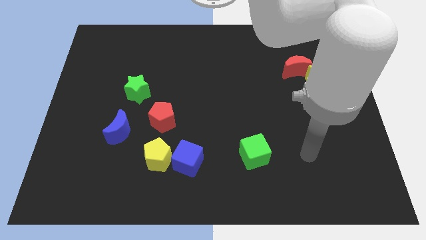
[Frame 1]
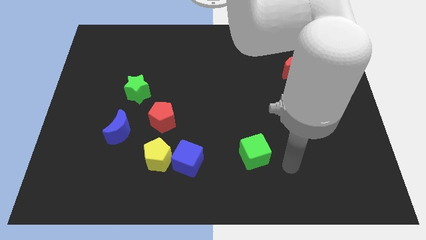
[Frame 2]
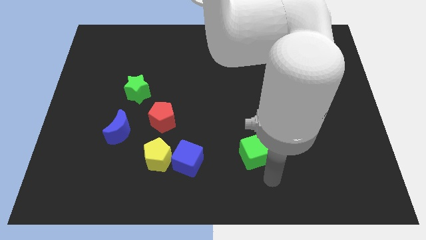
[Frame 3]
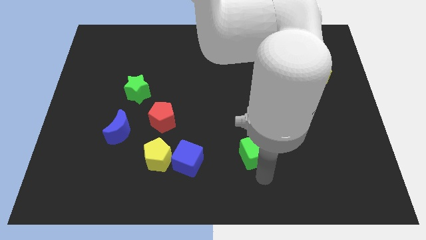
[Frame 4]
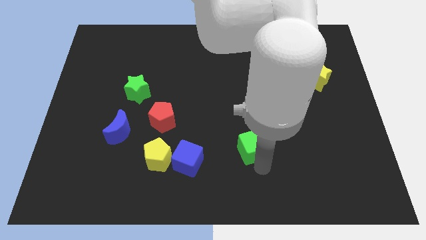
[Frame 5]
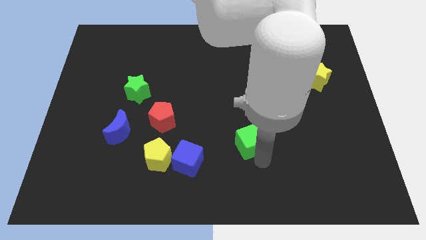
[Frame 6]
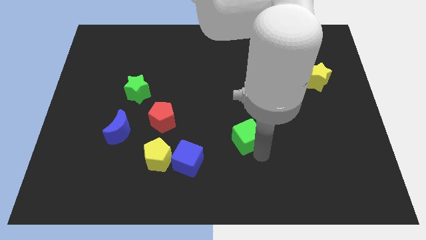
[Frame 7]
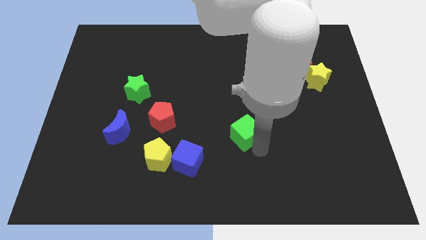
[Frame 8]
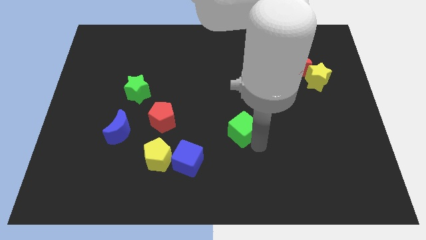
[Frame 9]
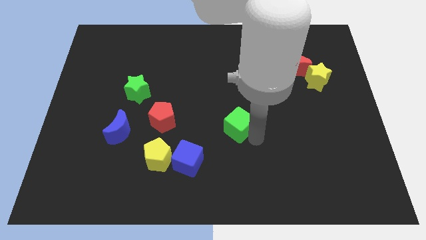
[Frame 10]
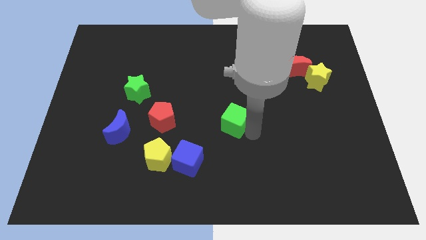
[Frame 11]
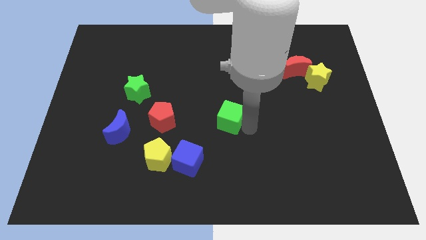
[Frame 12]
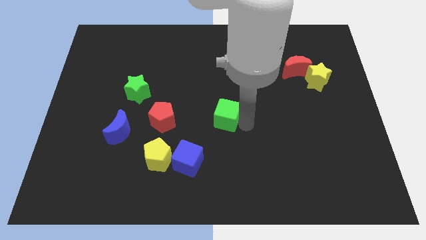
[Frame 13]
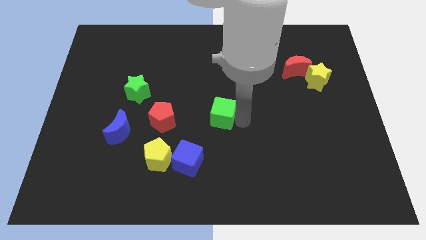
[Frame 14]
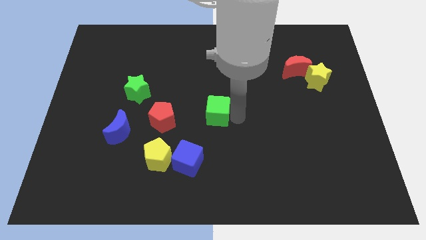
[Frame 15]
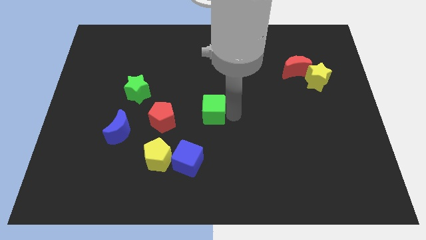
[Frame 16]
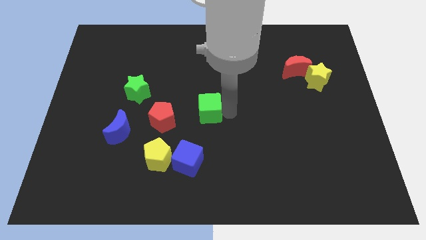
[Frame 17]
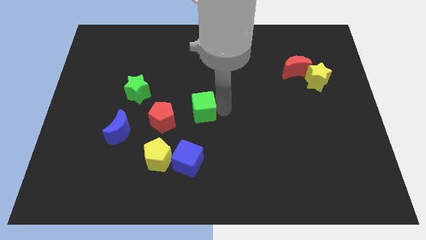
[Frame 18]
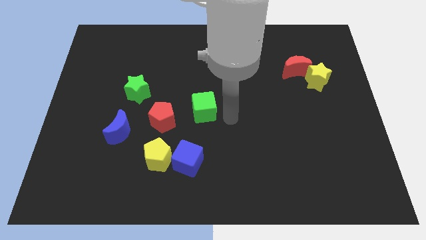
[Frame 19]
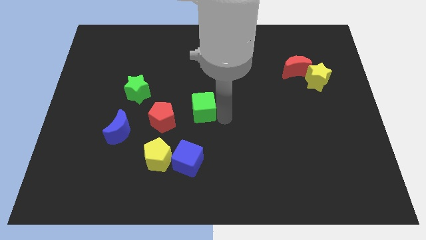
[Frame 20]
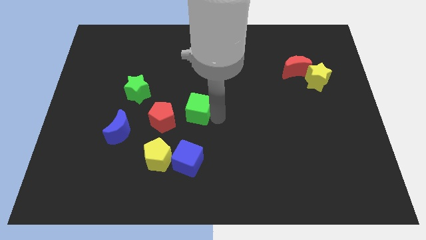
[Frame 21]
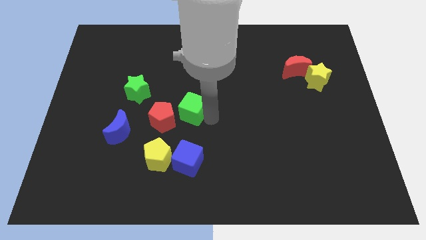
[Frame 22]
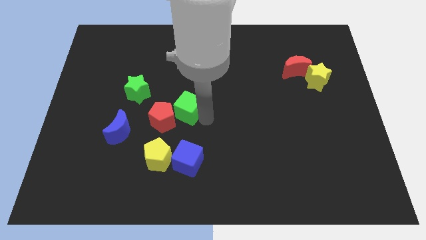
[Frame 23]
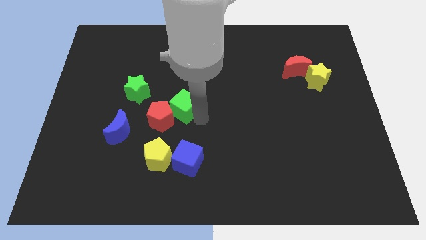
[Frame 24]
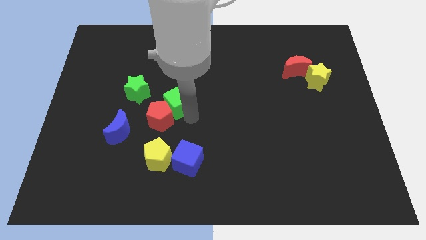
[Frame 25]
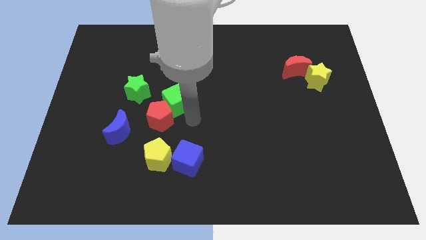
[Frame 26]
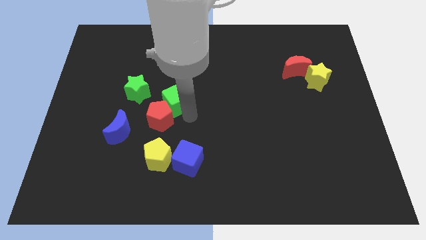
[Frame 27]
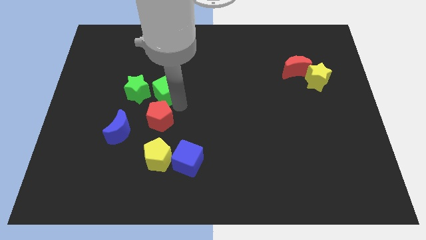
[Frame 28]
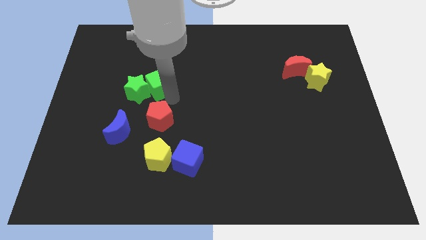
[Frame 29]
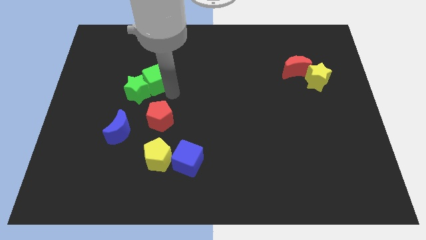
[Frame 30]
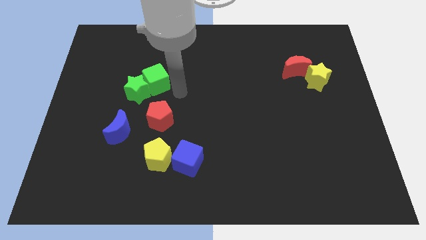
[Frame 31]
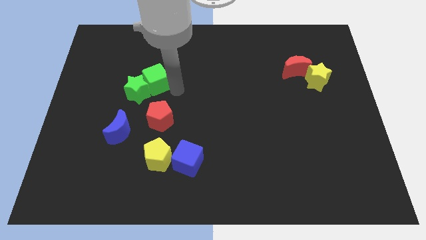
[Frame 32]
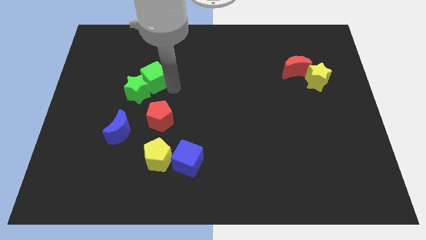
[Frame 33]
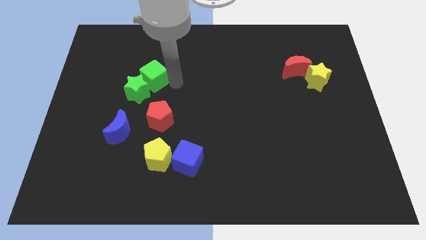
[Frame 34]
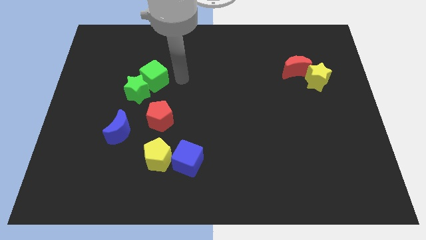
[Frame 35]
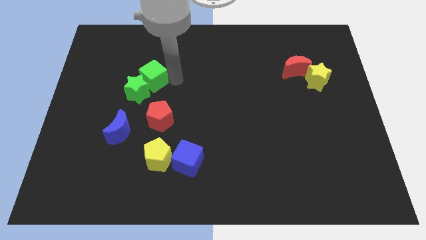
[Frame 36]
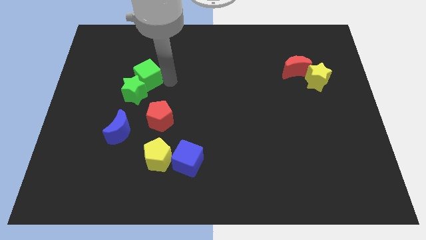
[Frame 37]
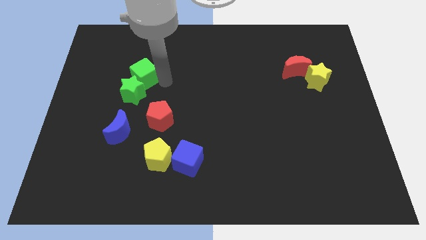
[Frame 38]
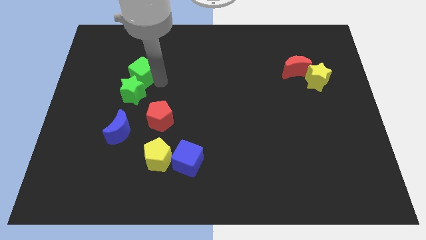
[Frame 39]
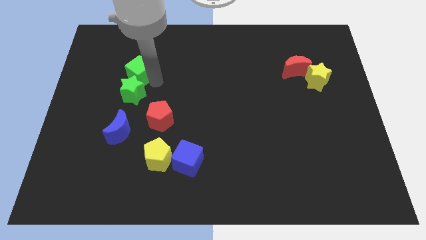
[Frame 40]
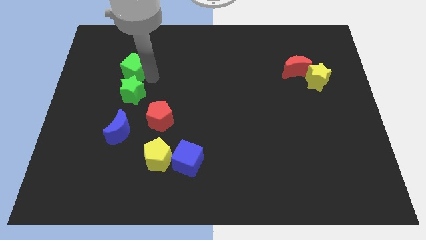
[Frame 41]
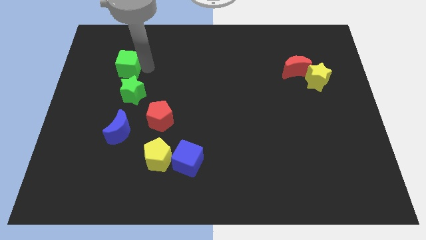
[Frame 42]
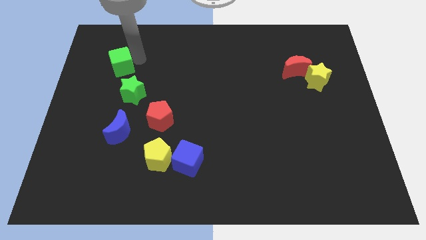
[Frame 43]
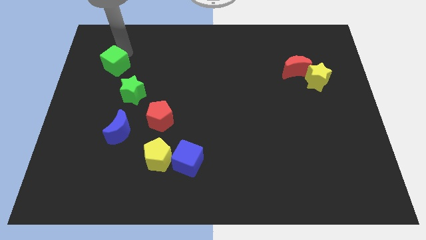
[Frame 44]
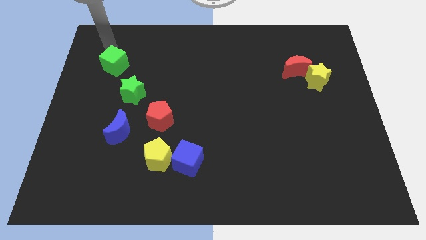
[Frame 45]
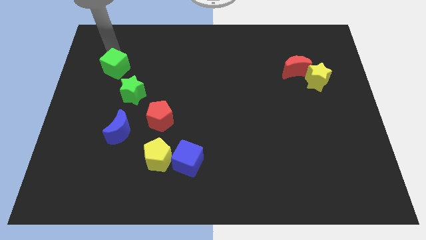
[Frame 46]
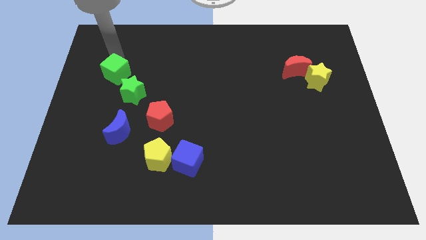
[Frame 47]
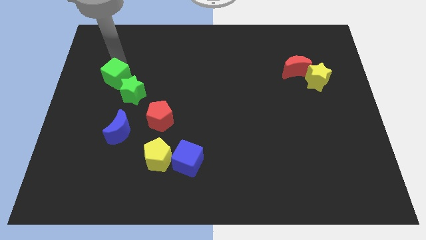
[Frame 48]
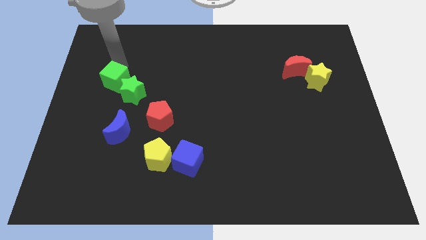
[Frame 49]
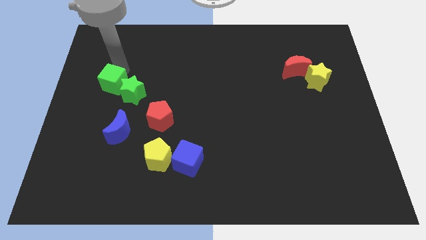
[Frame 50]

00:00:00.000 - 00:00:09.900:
slide the green cube above the blue moon

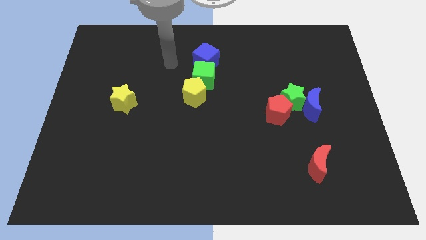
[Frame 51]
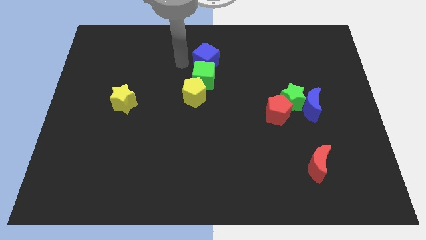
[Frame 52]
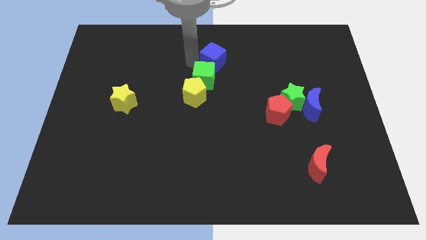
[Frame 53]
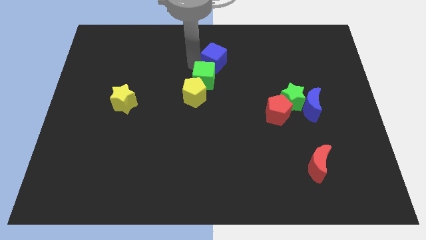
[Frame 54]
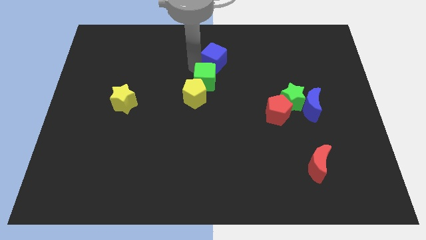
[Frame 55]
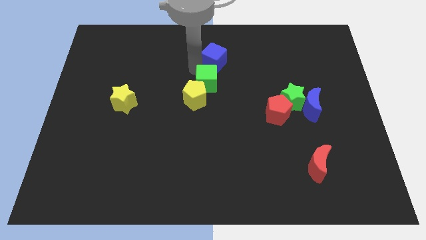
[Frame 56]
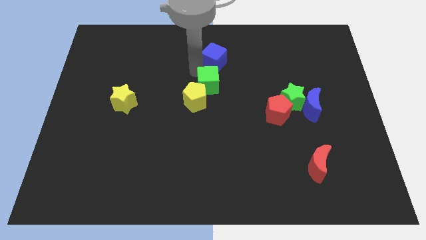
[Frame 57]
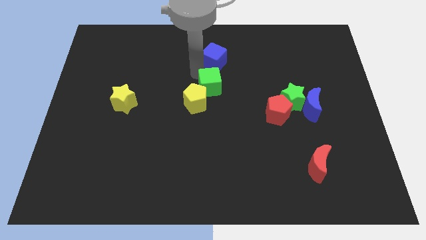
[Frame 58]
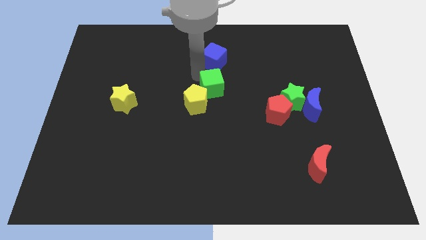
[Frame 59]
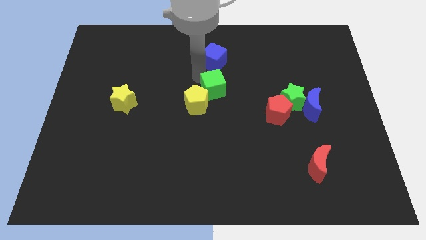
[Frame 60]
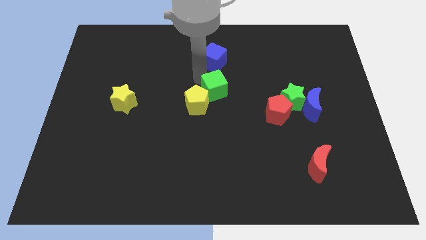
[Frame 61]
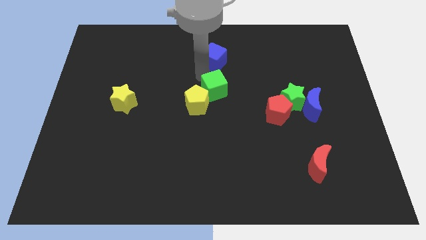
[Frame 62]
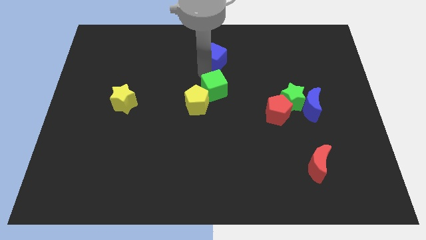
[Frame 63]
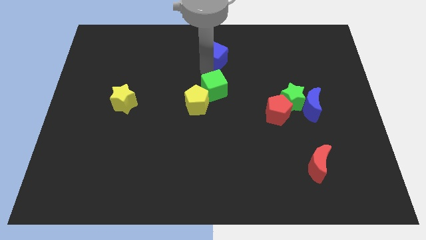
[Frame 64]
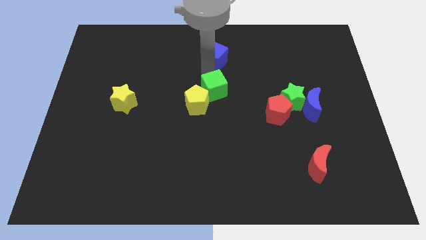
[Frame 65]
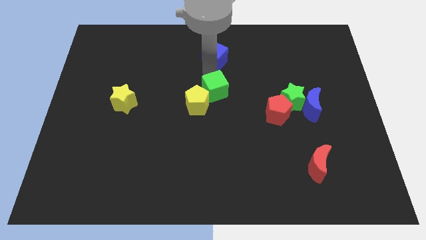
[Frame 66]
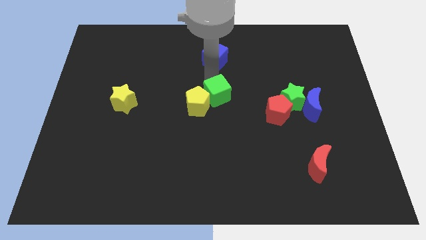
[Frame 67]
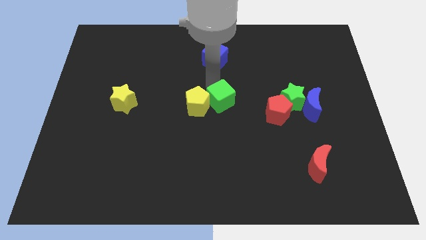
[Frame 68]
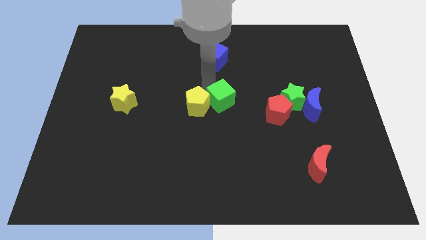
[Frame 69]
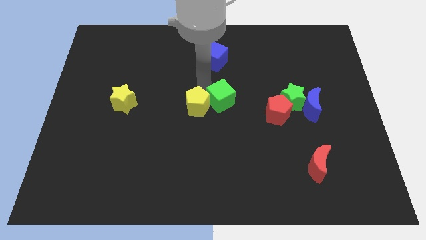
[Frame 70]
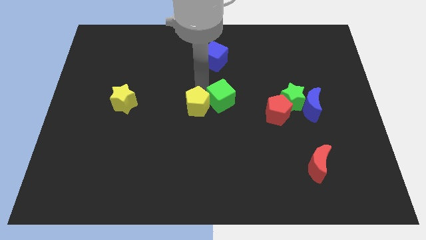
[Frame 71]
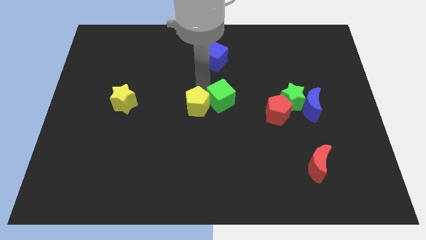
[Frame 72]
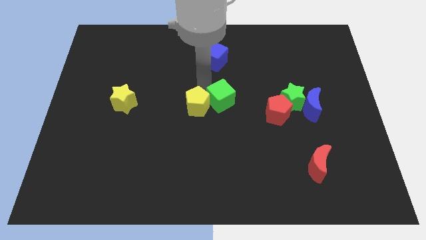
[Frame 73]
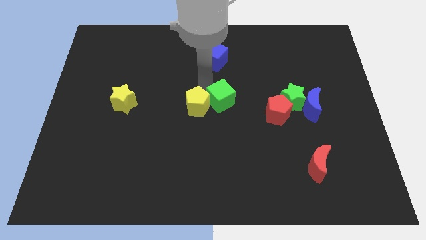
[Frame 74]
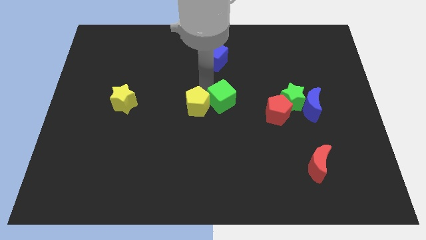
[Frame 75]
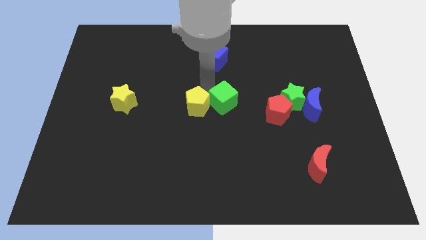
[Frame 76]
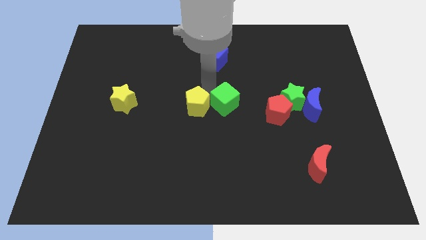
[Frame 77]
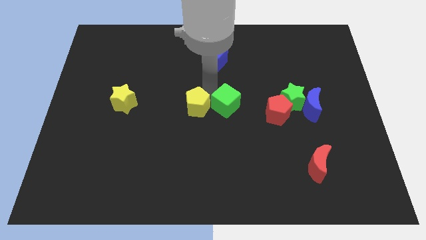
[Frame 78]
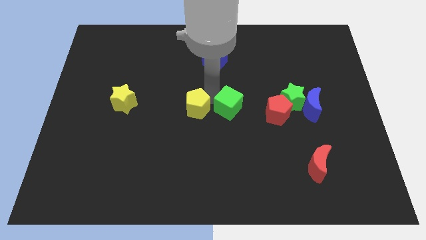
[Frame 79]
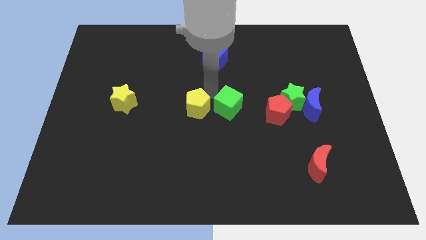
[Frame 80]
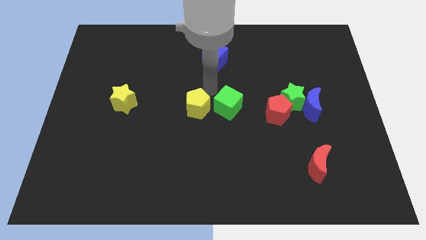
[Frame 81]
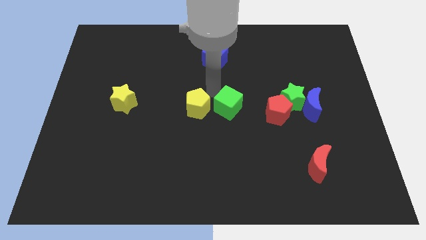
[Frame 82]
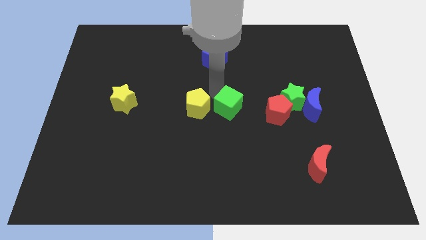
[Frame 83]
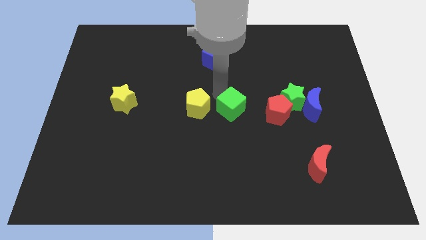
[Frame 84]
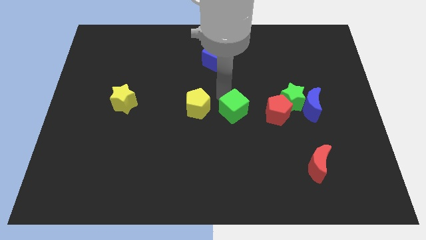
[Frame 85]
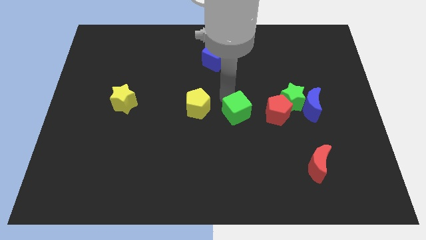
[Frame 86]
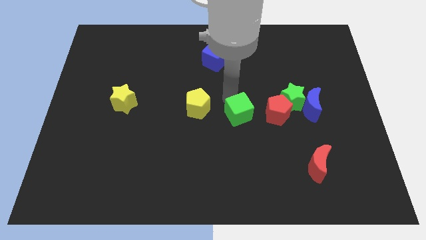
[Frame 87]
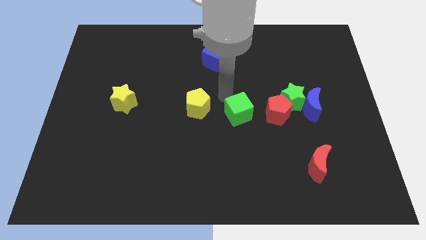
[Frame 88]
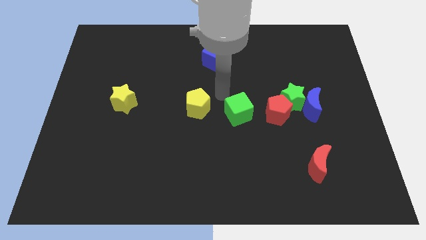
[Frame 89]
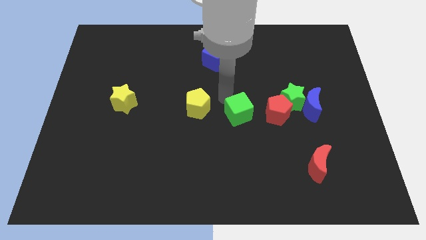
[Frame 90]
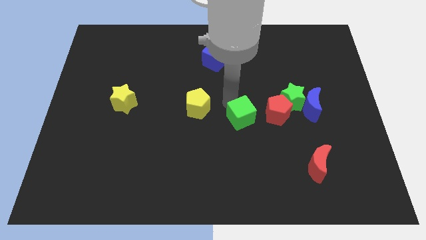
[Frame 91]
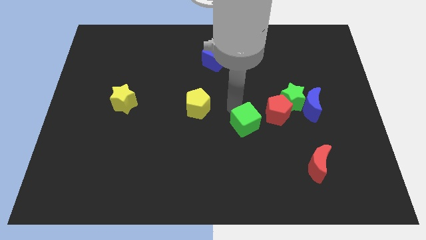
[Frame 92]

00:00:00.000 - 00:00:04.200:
slide the green cube diagonally down and to the left of the red pentagon
